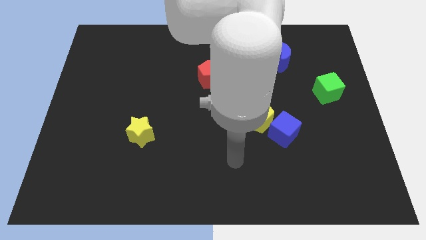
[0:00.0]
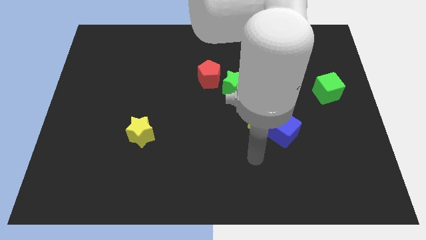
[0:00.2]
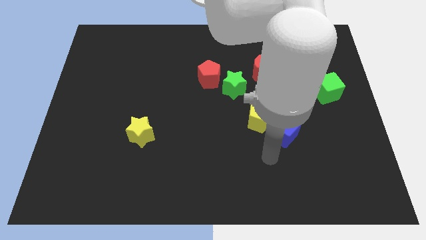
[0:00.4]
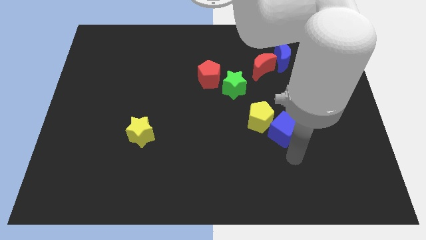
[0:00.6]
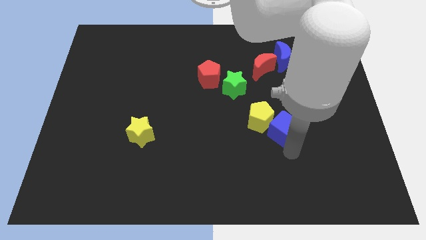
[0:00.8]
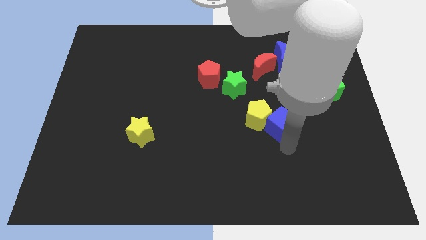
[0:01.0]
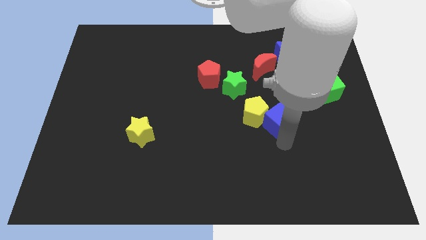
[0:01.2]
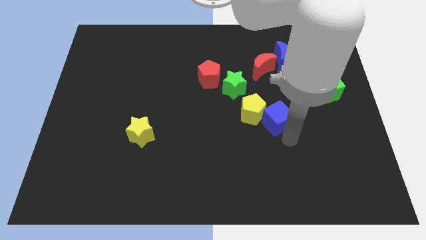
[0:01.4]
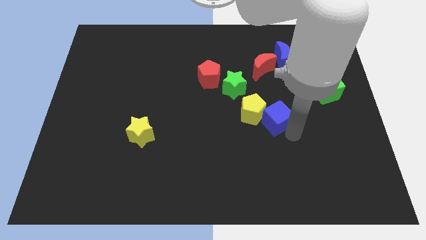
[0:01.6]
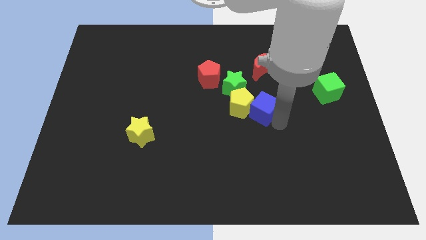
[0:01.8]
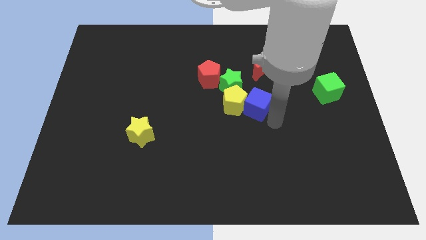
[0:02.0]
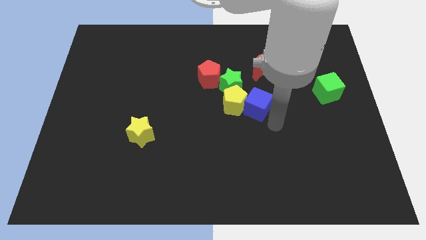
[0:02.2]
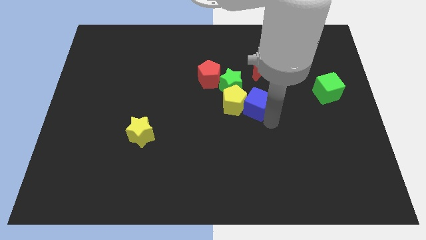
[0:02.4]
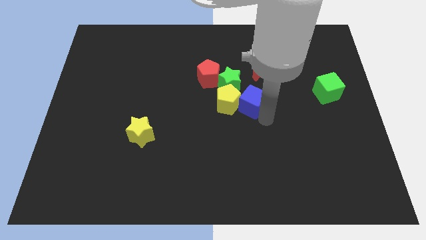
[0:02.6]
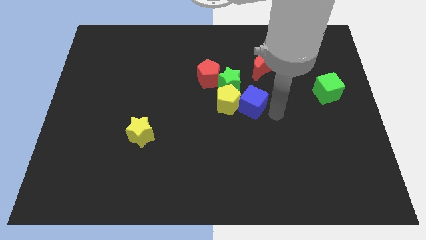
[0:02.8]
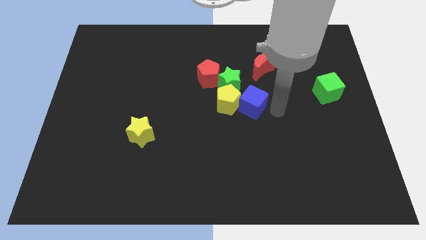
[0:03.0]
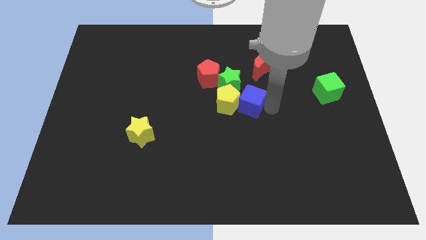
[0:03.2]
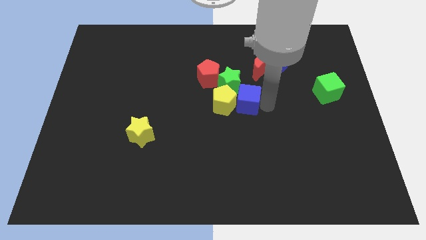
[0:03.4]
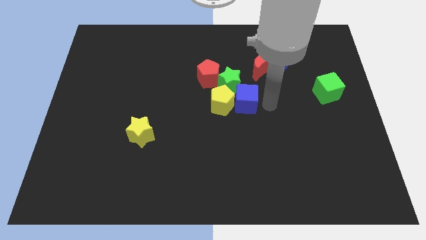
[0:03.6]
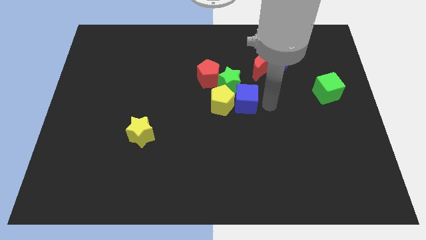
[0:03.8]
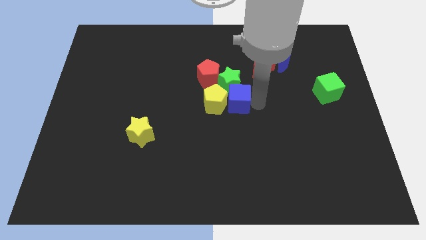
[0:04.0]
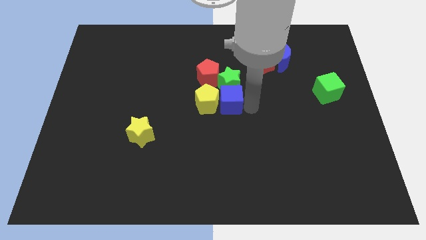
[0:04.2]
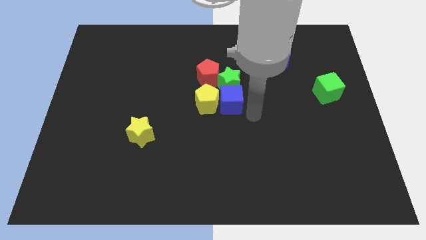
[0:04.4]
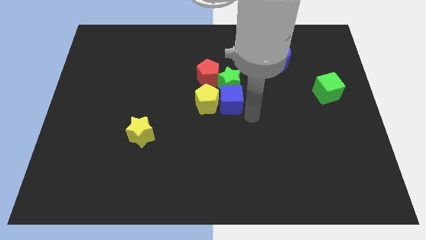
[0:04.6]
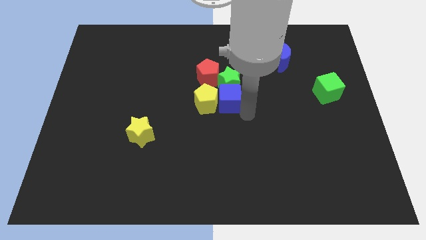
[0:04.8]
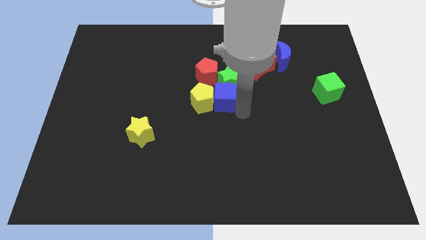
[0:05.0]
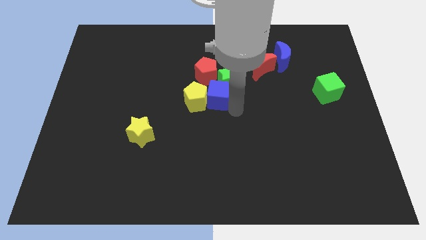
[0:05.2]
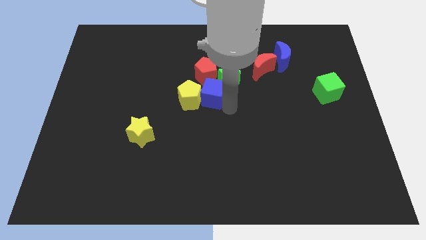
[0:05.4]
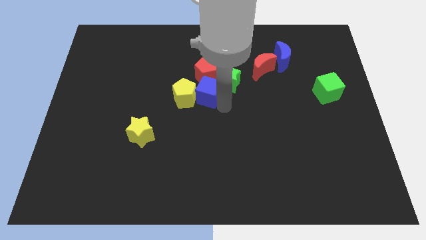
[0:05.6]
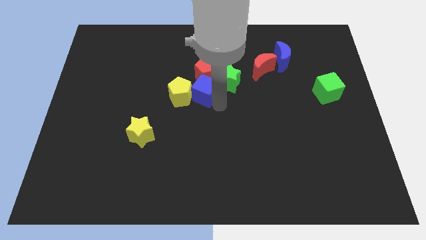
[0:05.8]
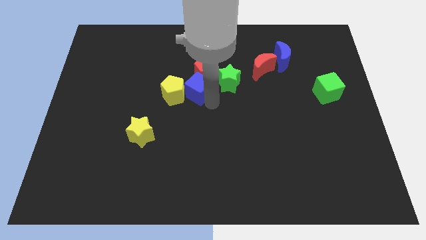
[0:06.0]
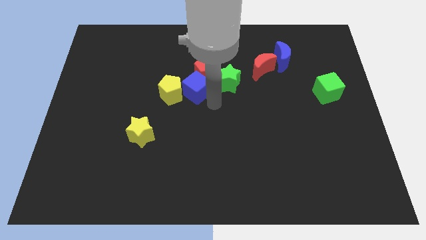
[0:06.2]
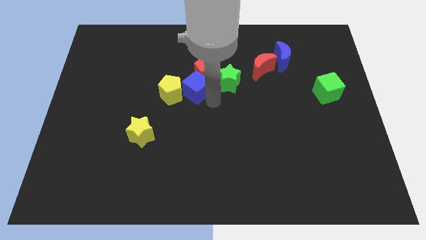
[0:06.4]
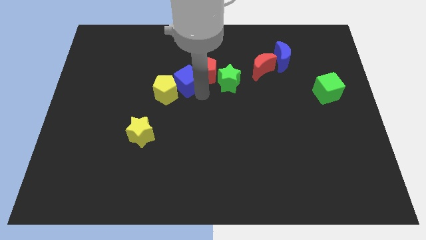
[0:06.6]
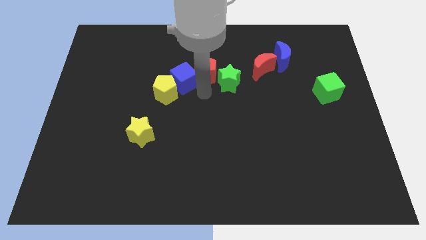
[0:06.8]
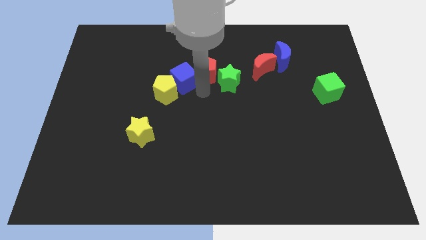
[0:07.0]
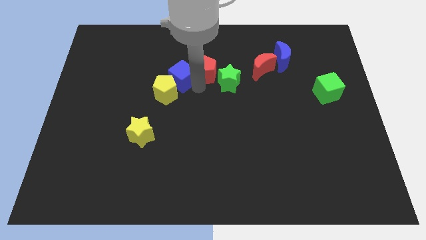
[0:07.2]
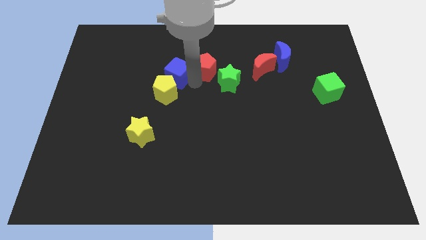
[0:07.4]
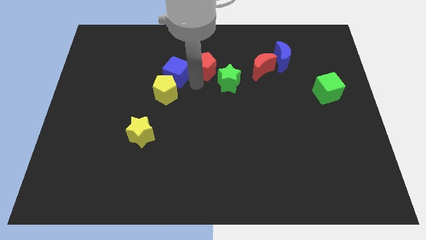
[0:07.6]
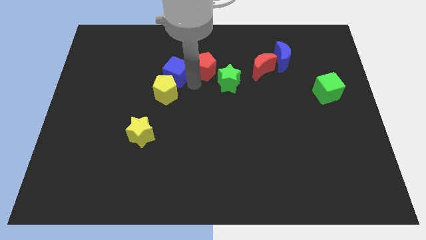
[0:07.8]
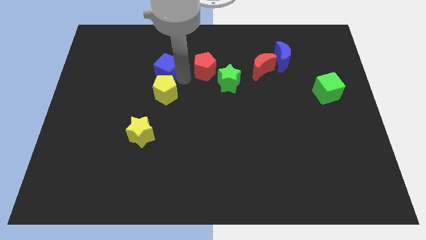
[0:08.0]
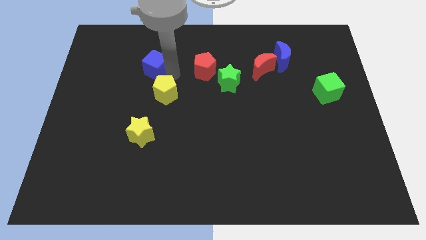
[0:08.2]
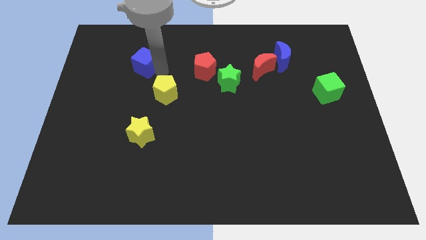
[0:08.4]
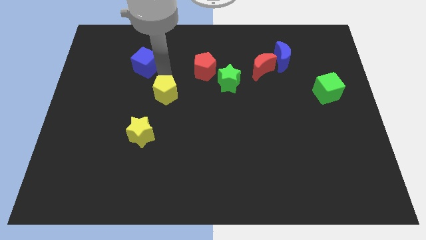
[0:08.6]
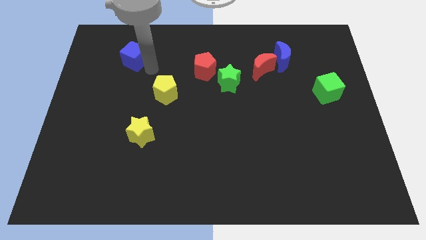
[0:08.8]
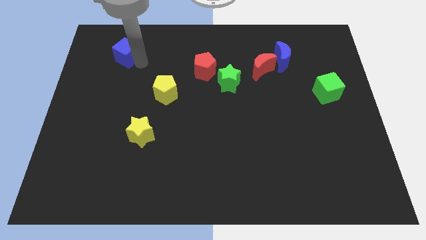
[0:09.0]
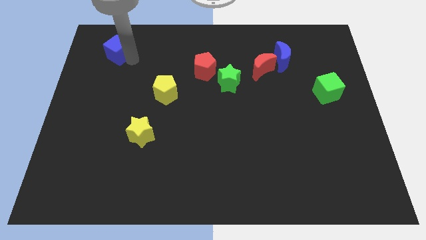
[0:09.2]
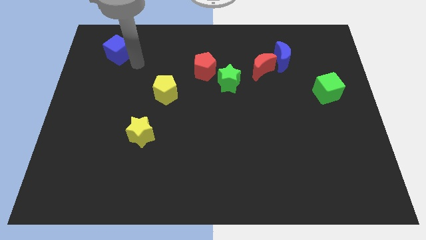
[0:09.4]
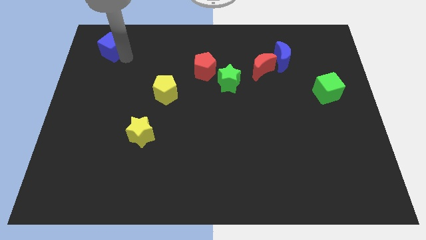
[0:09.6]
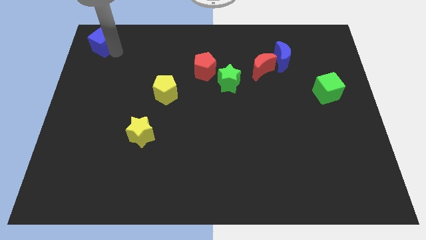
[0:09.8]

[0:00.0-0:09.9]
move the blue cube to the top left corner

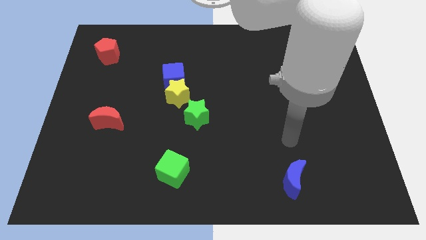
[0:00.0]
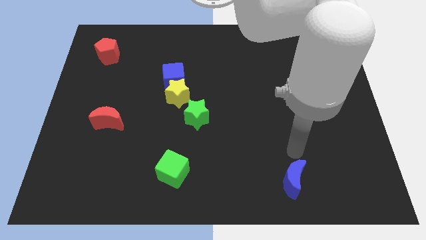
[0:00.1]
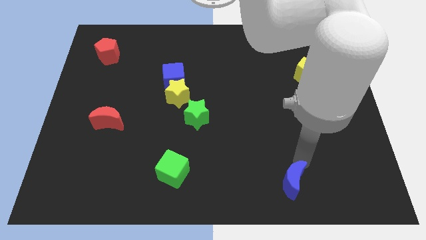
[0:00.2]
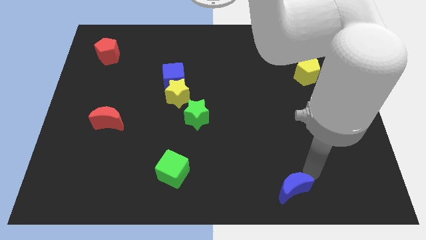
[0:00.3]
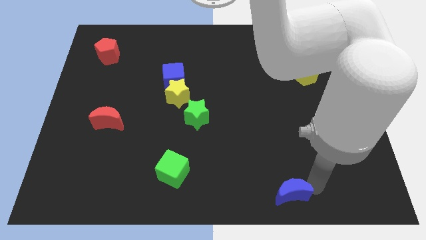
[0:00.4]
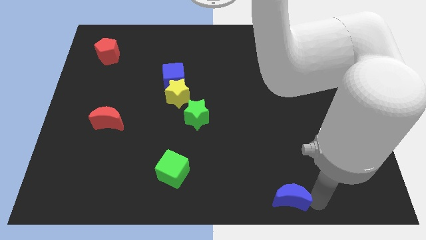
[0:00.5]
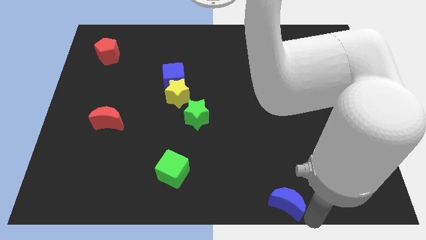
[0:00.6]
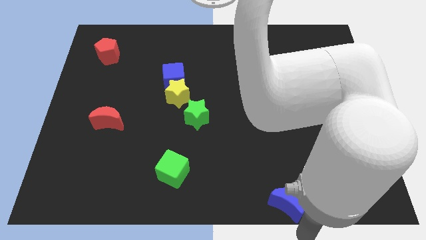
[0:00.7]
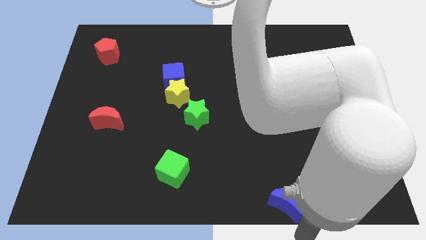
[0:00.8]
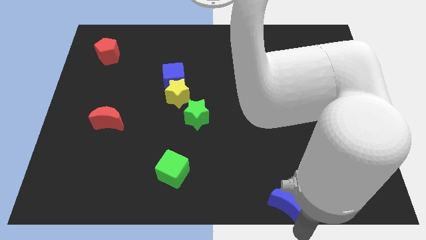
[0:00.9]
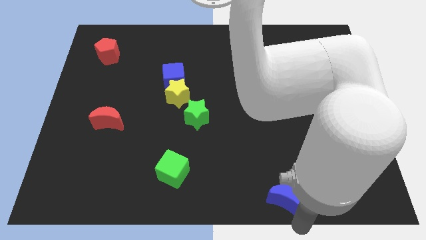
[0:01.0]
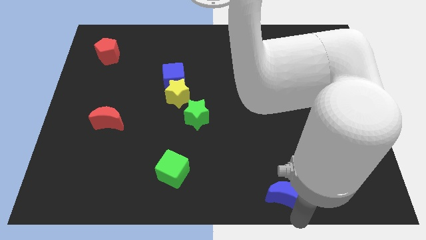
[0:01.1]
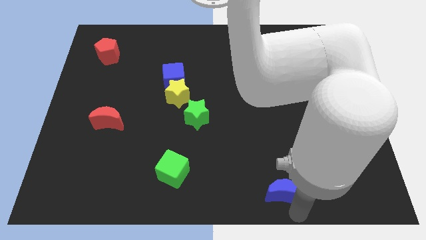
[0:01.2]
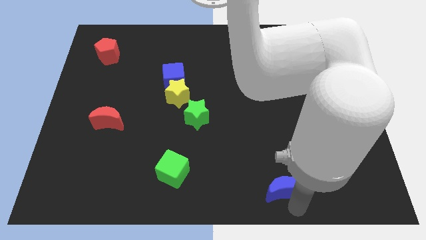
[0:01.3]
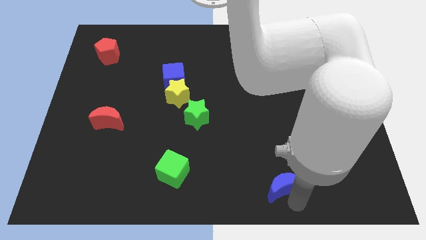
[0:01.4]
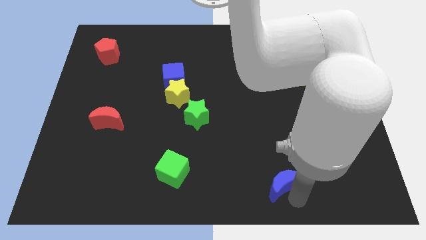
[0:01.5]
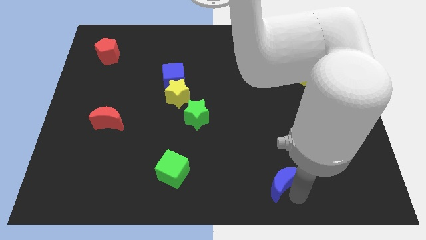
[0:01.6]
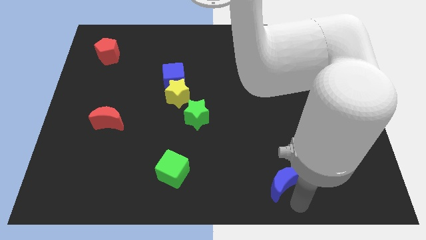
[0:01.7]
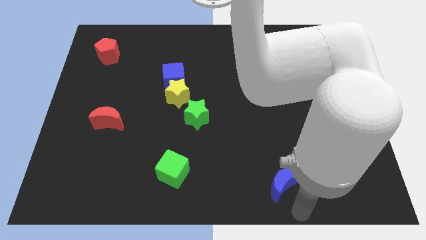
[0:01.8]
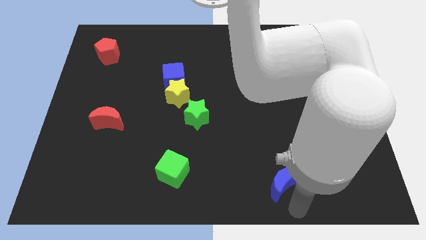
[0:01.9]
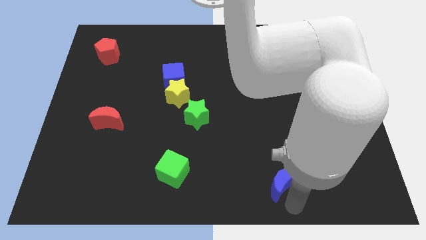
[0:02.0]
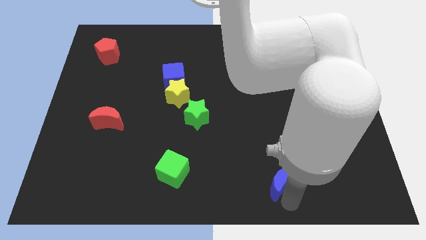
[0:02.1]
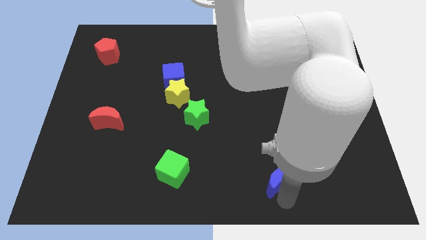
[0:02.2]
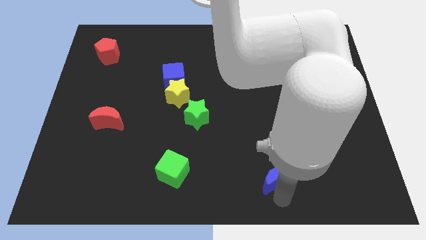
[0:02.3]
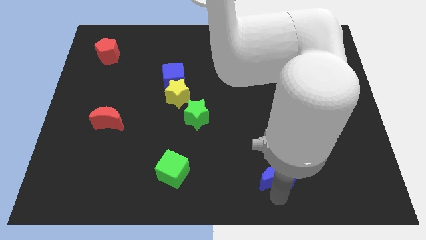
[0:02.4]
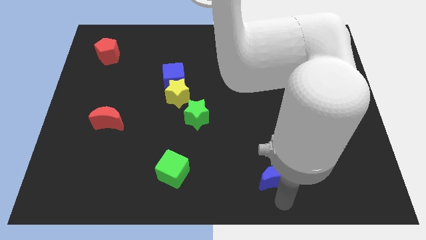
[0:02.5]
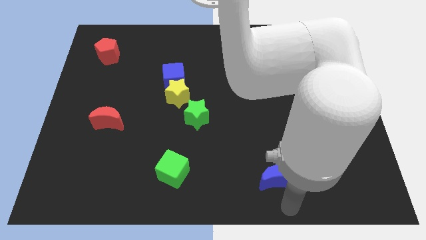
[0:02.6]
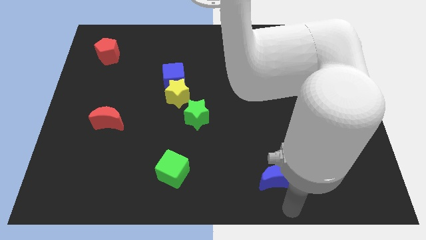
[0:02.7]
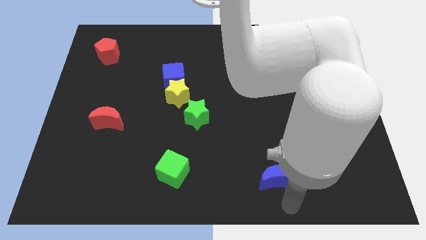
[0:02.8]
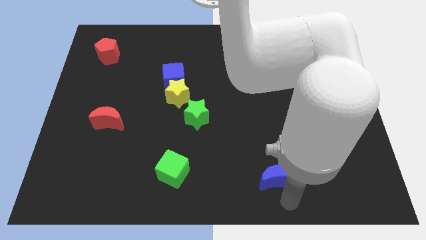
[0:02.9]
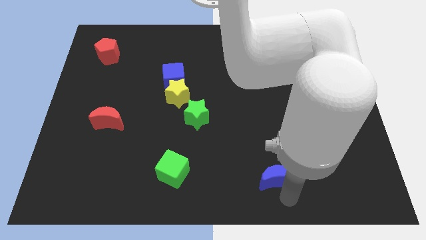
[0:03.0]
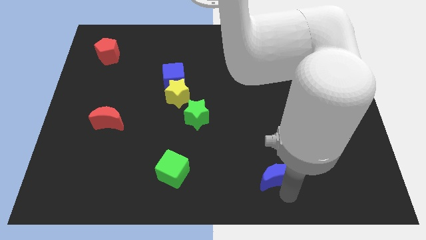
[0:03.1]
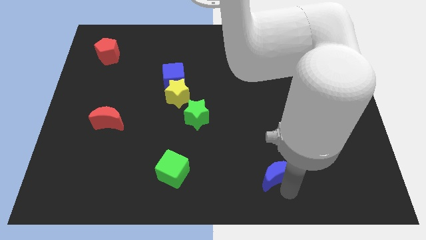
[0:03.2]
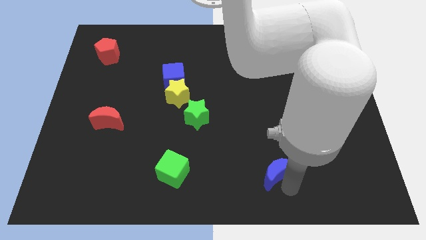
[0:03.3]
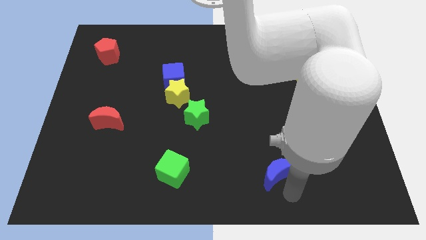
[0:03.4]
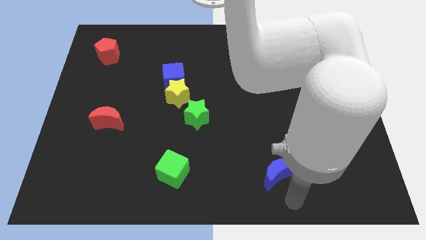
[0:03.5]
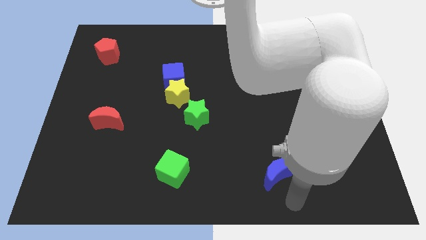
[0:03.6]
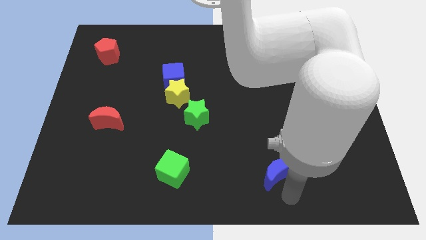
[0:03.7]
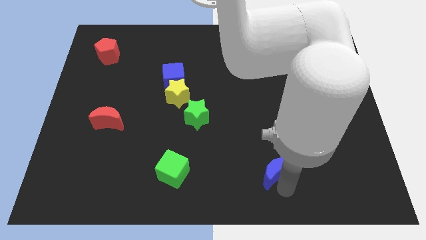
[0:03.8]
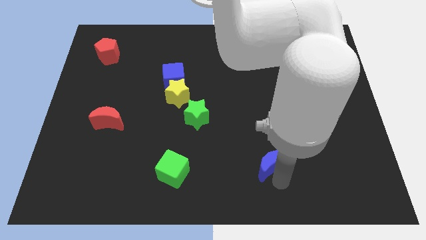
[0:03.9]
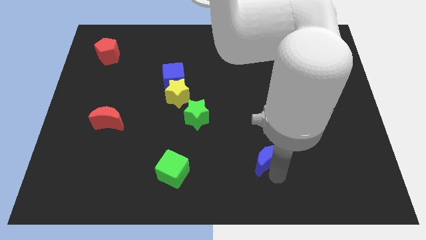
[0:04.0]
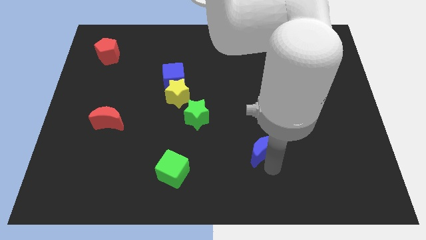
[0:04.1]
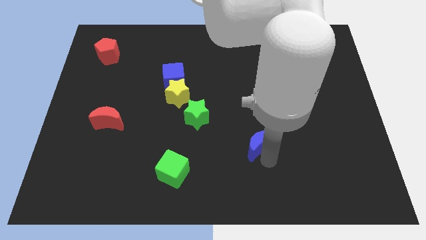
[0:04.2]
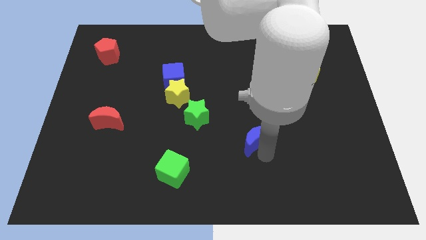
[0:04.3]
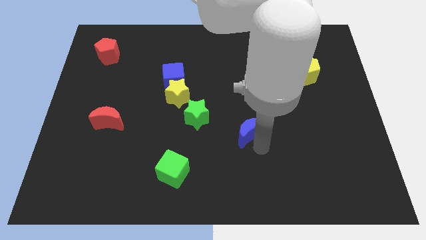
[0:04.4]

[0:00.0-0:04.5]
slide the blue moon to the center of the board
